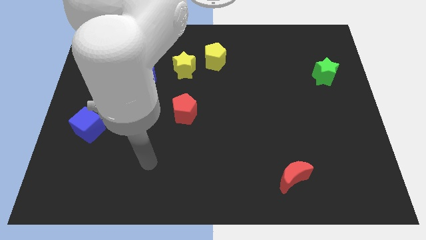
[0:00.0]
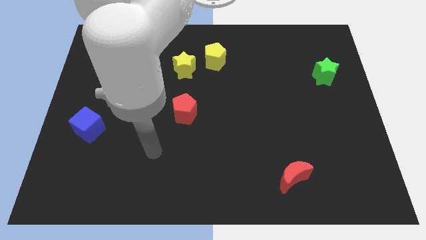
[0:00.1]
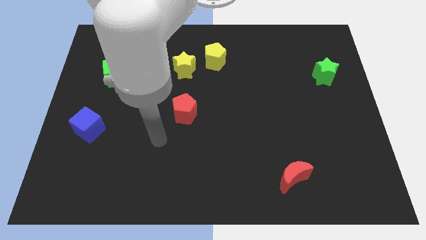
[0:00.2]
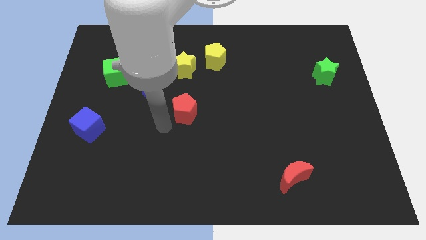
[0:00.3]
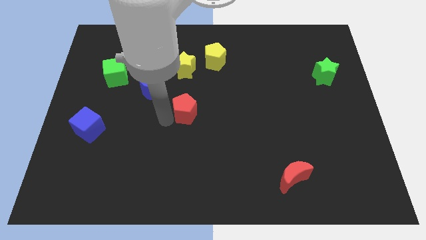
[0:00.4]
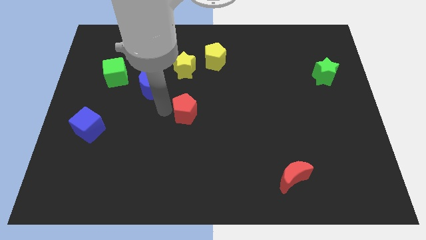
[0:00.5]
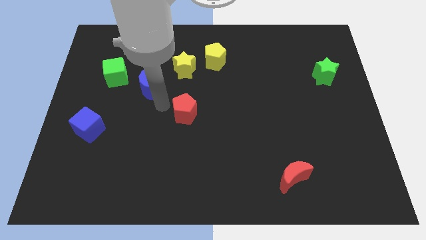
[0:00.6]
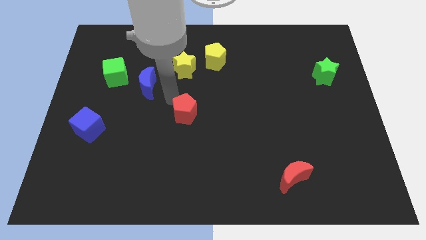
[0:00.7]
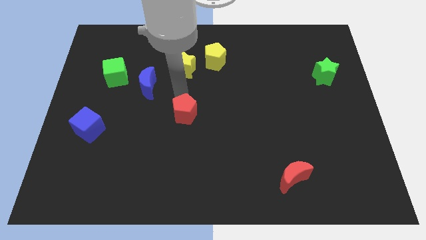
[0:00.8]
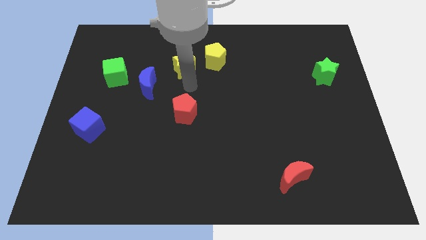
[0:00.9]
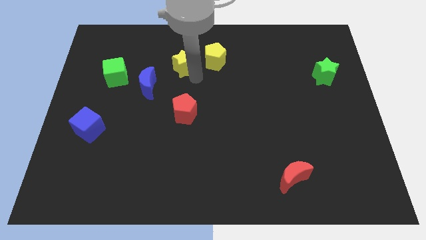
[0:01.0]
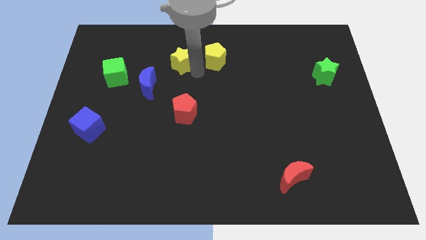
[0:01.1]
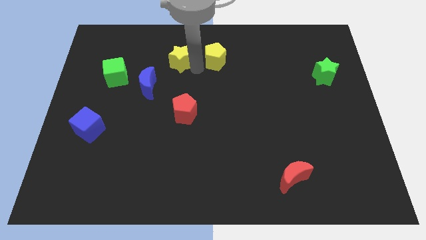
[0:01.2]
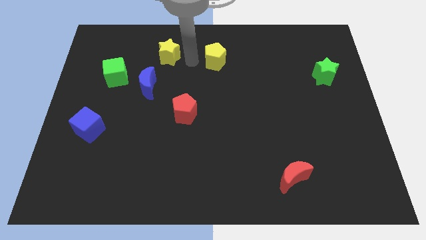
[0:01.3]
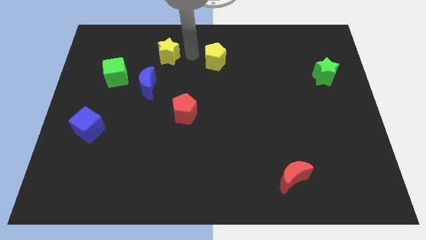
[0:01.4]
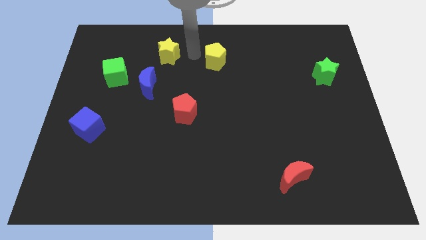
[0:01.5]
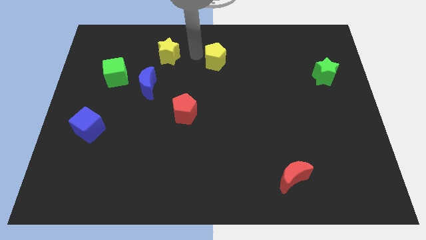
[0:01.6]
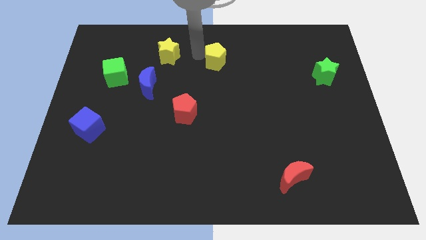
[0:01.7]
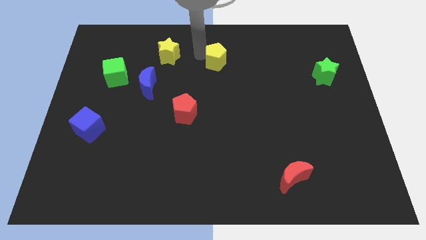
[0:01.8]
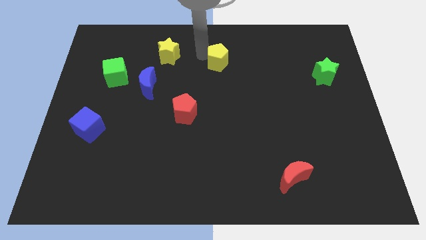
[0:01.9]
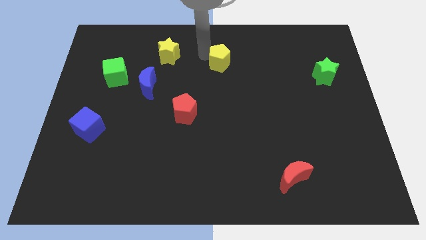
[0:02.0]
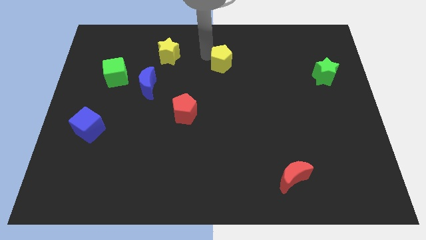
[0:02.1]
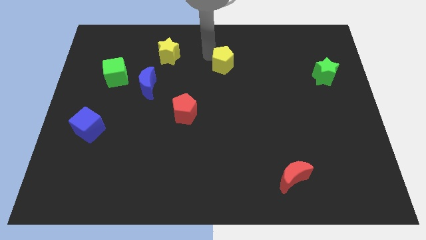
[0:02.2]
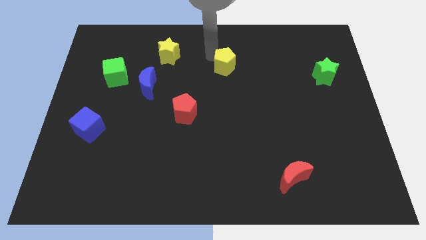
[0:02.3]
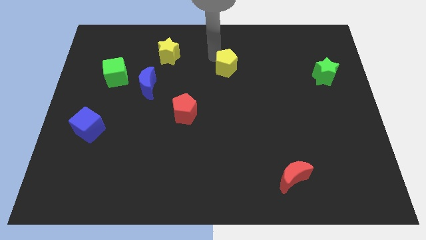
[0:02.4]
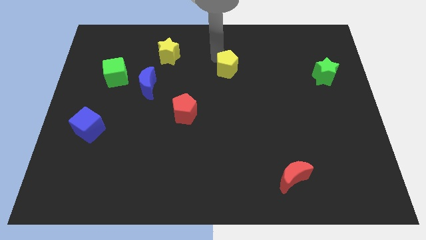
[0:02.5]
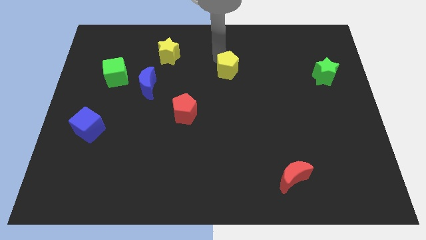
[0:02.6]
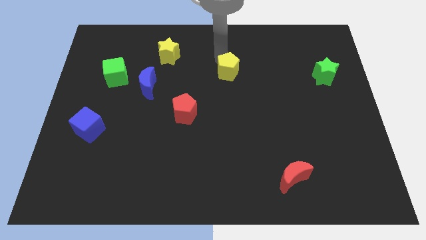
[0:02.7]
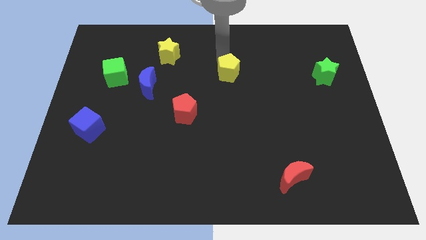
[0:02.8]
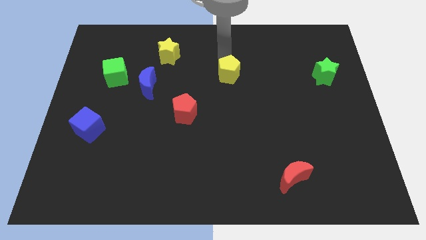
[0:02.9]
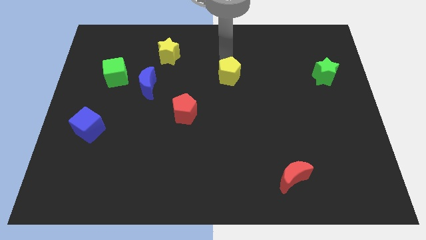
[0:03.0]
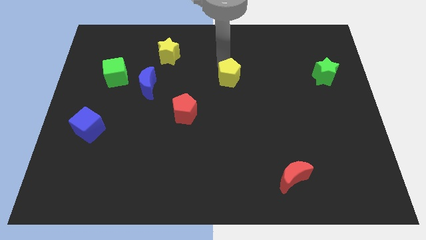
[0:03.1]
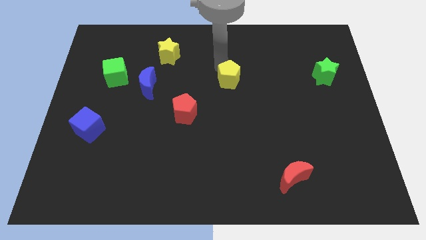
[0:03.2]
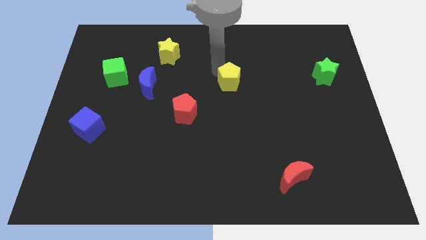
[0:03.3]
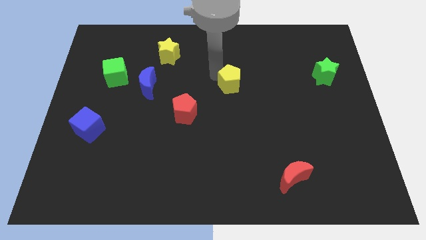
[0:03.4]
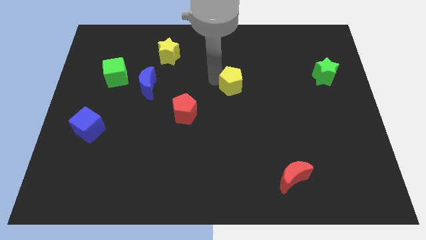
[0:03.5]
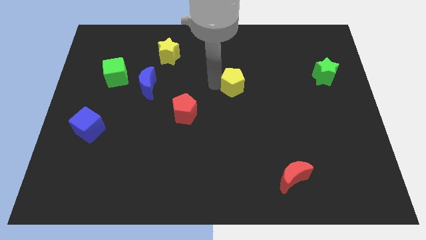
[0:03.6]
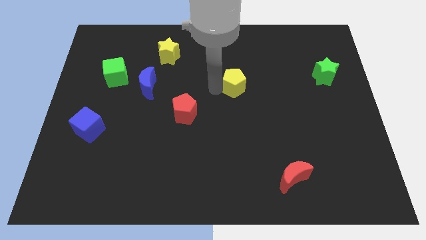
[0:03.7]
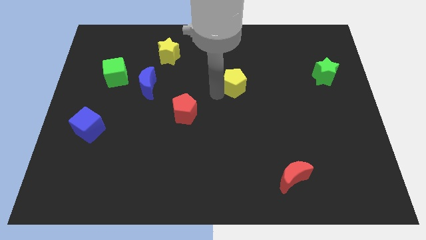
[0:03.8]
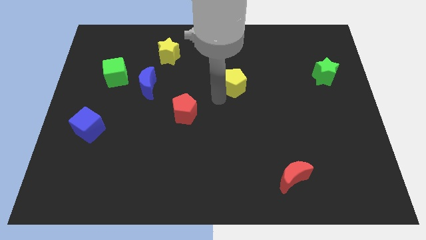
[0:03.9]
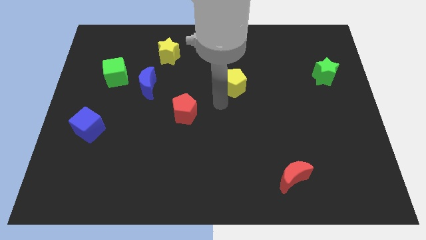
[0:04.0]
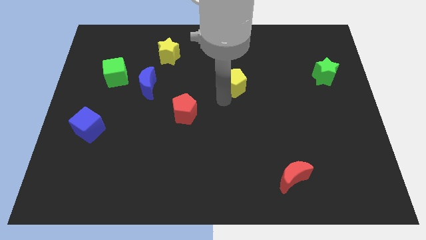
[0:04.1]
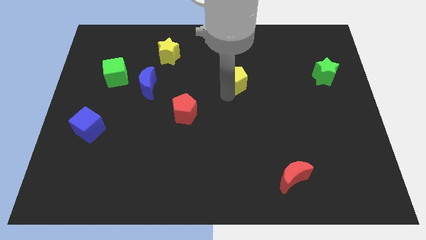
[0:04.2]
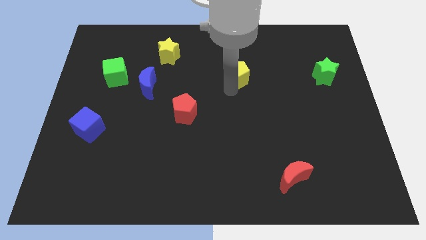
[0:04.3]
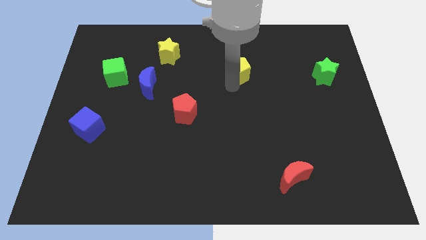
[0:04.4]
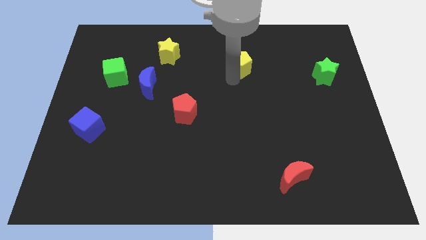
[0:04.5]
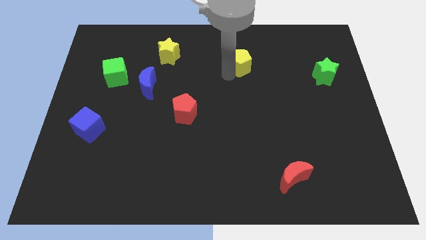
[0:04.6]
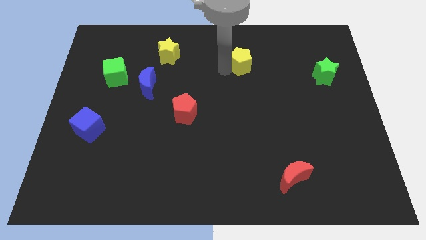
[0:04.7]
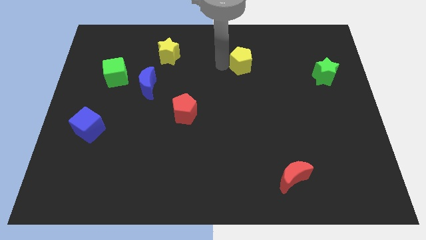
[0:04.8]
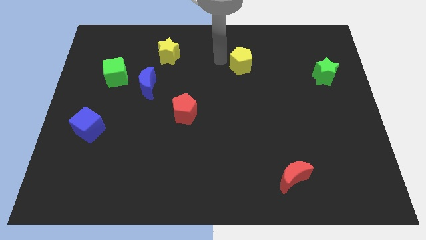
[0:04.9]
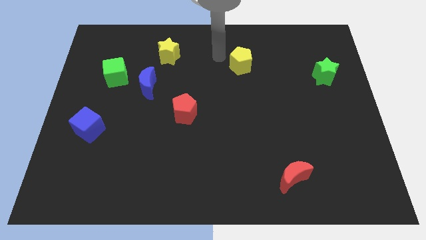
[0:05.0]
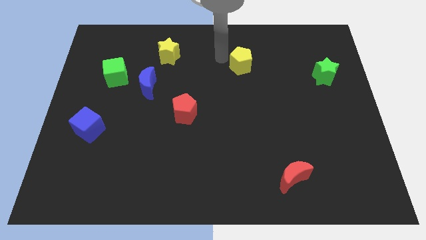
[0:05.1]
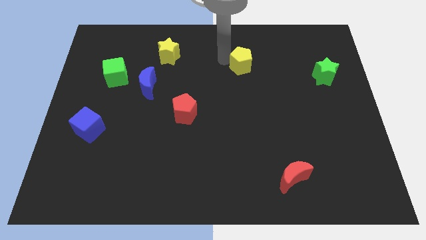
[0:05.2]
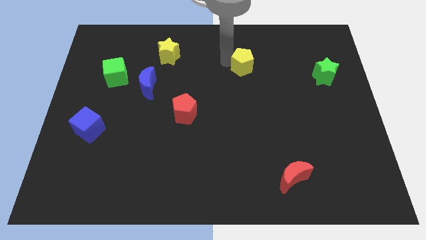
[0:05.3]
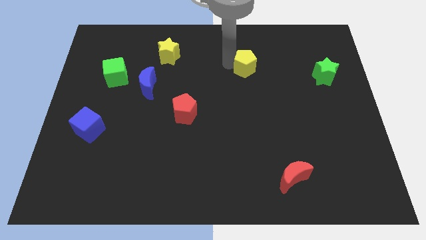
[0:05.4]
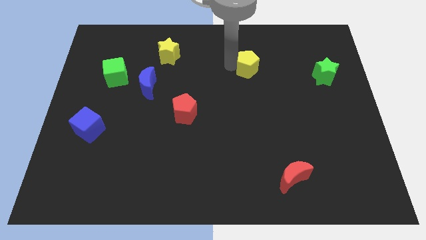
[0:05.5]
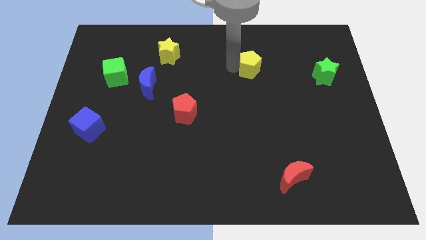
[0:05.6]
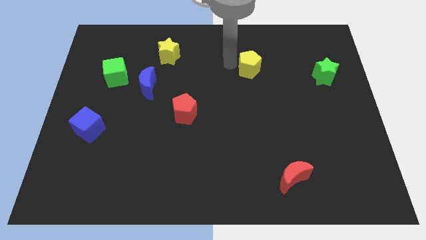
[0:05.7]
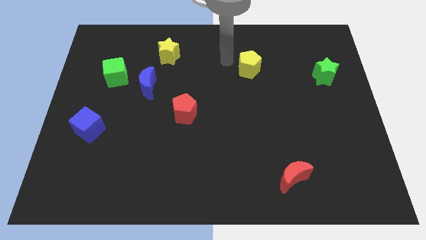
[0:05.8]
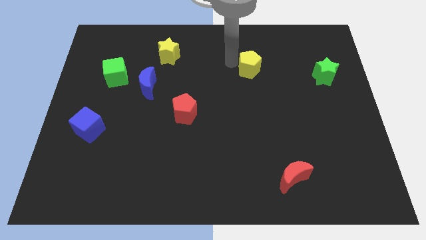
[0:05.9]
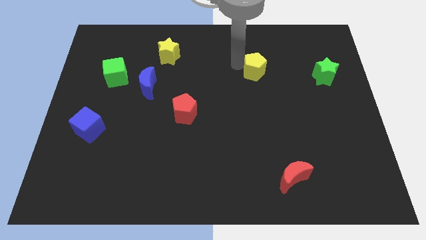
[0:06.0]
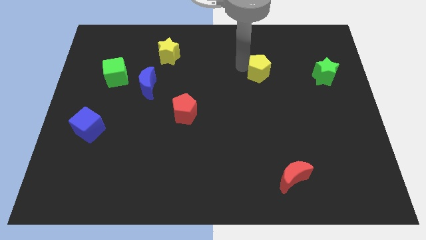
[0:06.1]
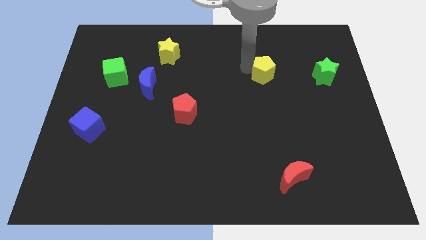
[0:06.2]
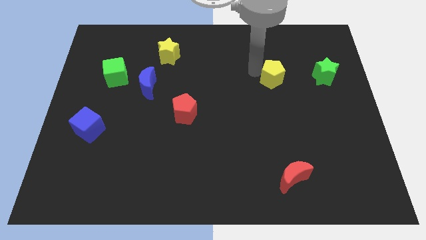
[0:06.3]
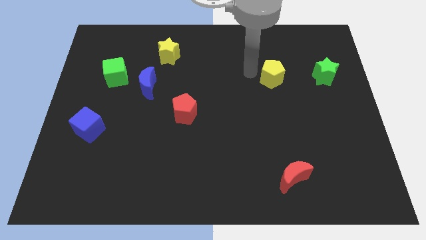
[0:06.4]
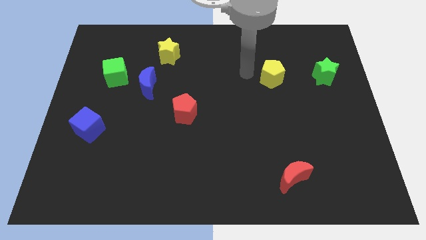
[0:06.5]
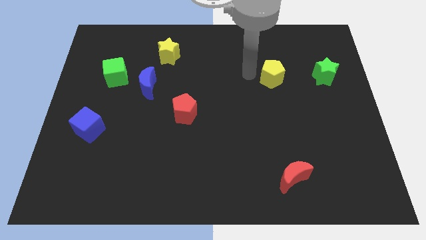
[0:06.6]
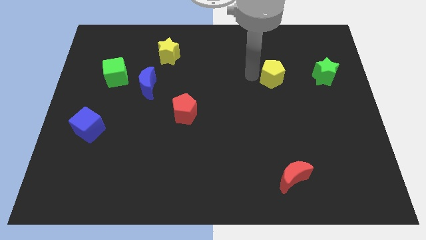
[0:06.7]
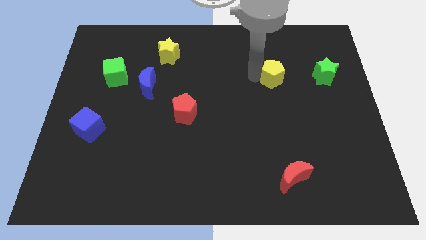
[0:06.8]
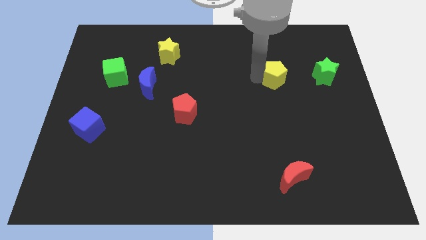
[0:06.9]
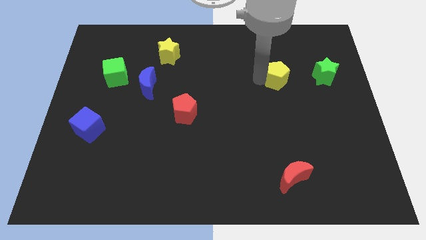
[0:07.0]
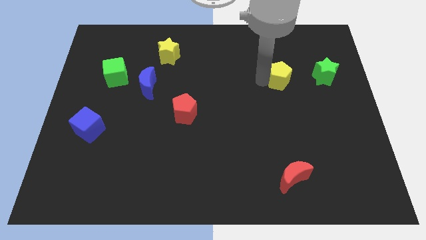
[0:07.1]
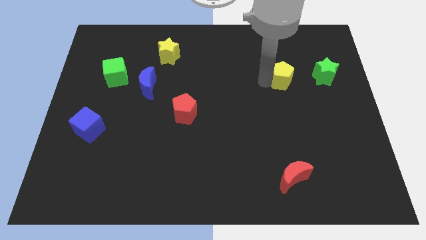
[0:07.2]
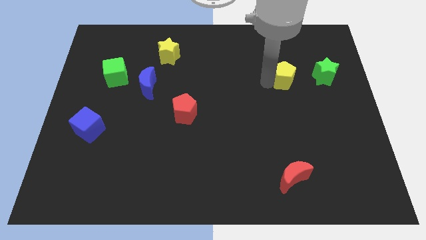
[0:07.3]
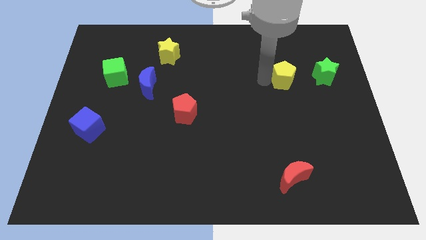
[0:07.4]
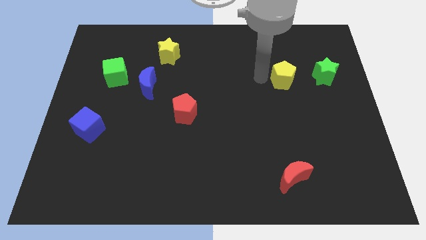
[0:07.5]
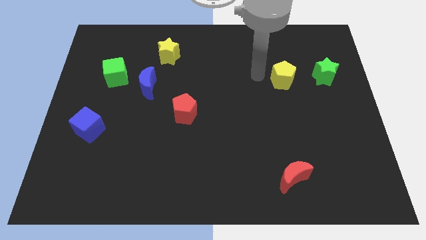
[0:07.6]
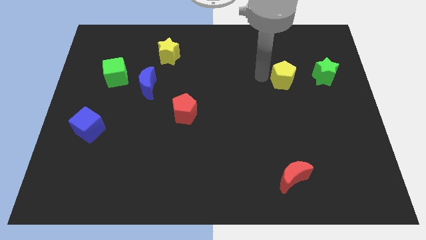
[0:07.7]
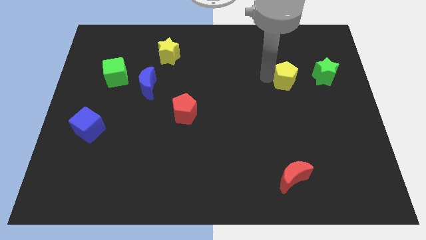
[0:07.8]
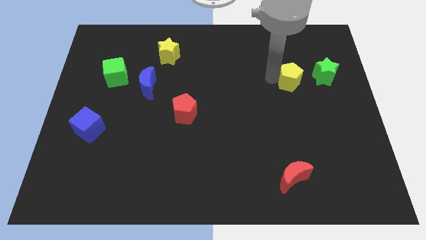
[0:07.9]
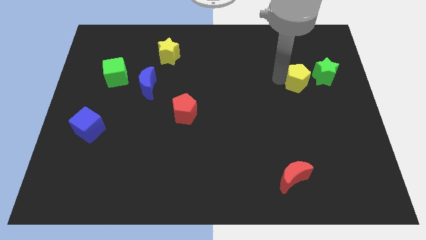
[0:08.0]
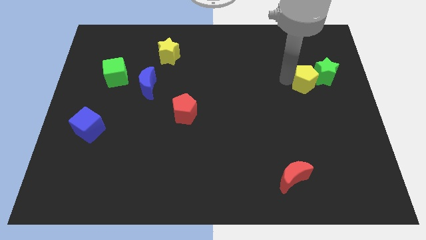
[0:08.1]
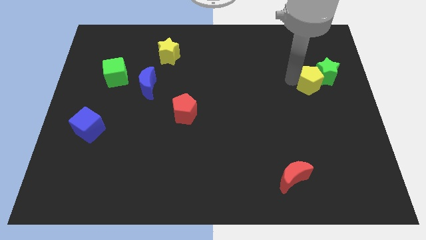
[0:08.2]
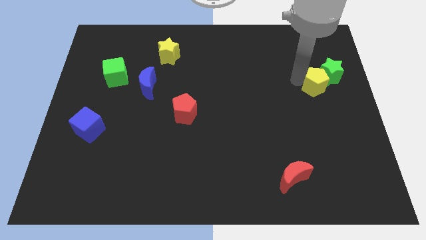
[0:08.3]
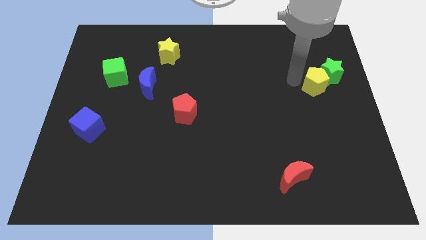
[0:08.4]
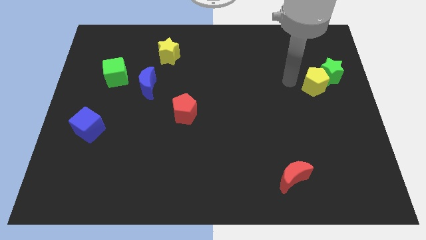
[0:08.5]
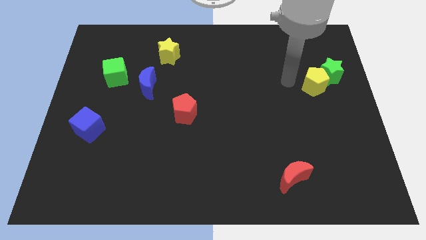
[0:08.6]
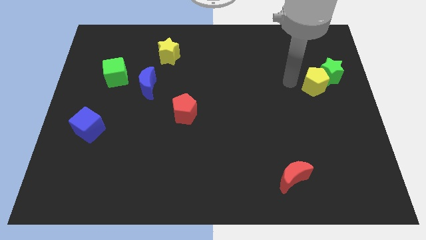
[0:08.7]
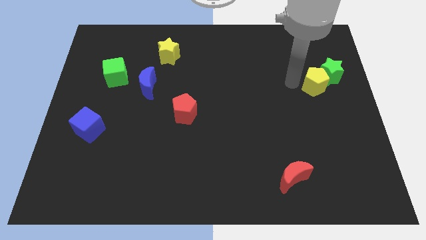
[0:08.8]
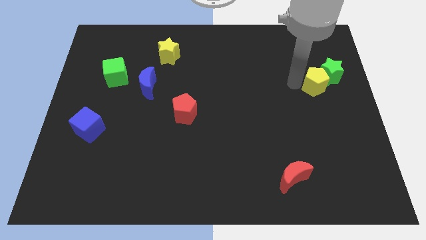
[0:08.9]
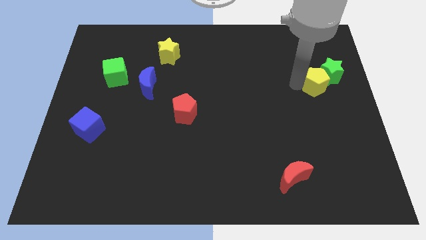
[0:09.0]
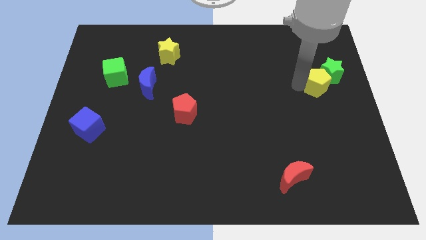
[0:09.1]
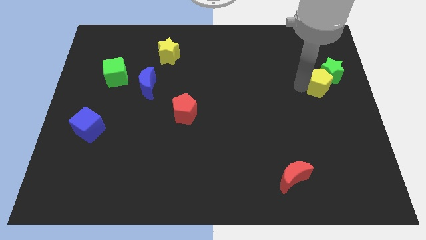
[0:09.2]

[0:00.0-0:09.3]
slide the yellow pentagon to the center right
